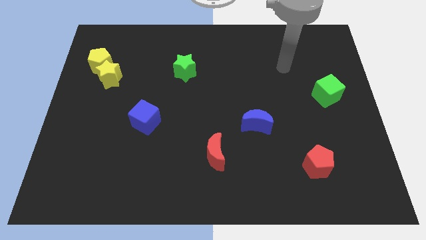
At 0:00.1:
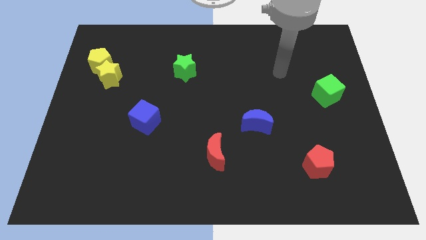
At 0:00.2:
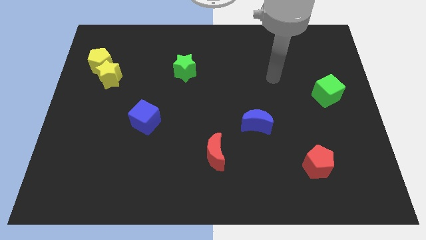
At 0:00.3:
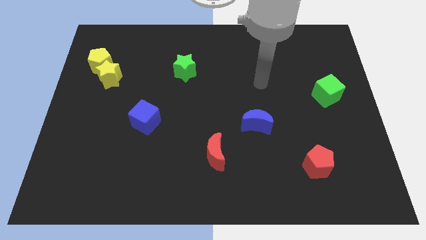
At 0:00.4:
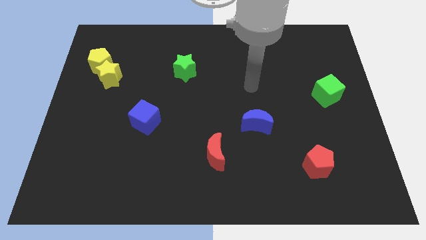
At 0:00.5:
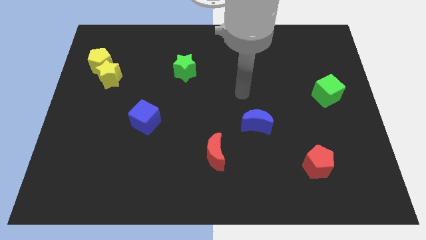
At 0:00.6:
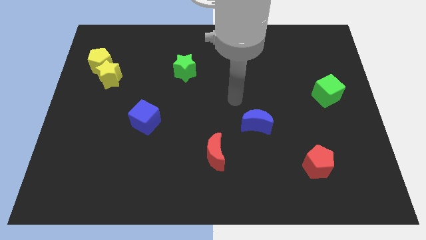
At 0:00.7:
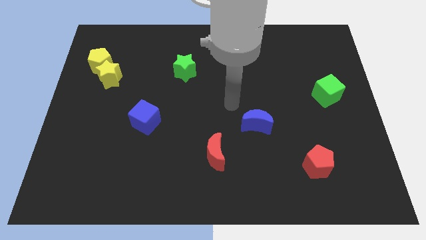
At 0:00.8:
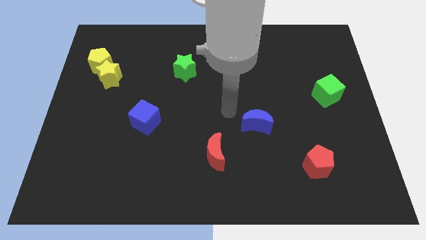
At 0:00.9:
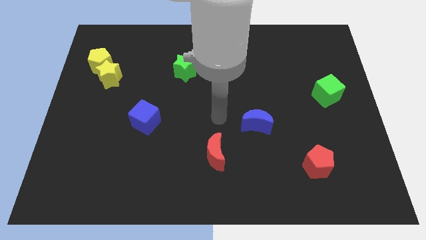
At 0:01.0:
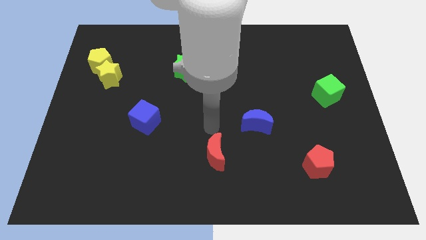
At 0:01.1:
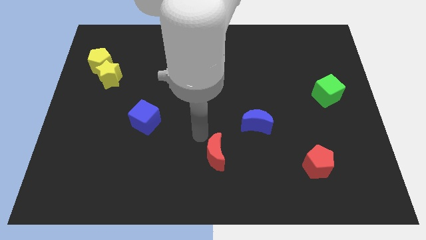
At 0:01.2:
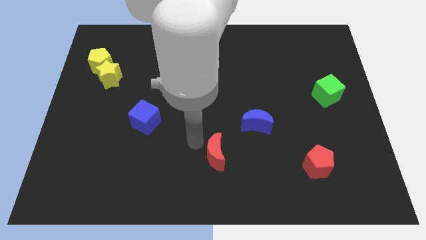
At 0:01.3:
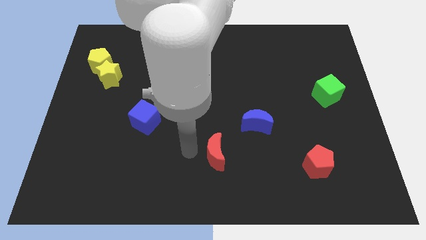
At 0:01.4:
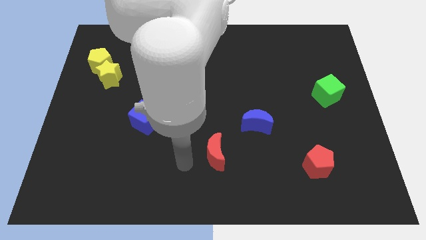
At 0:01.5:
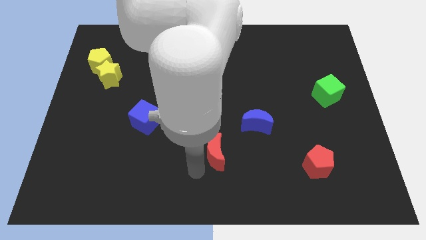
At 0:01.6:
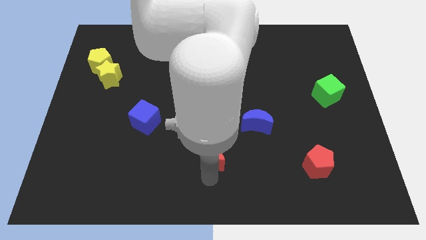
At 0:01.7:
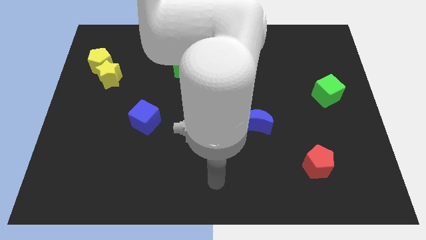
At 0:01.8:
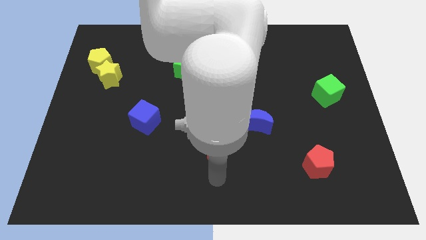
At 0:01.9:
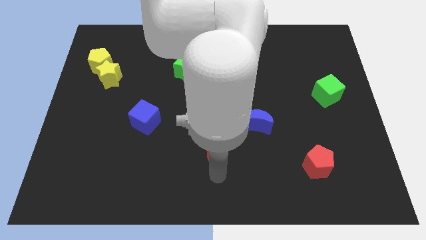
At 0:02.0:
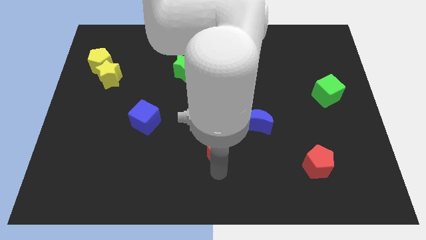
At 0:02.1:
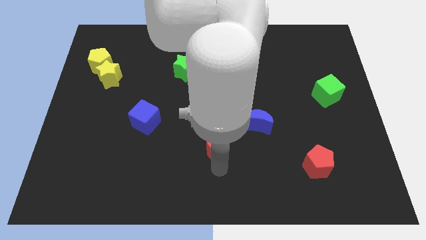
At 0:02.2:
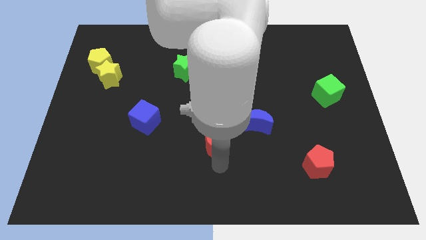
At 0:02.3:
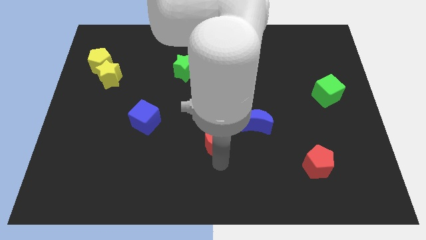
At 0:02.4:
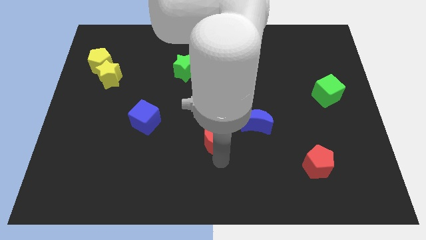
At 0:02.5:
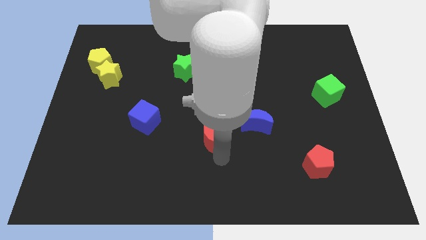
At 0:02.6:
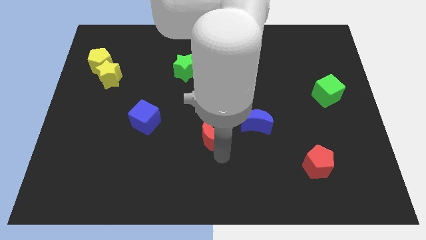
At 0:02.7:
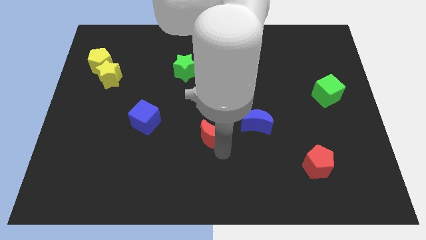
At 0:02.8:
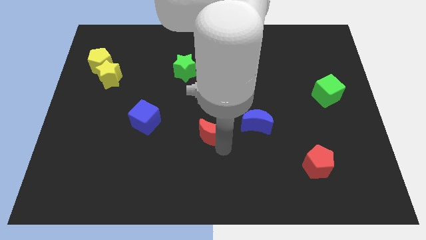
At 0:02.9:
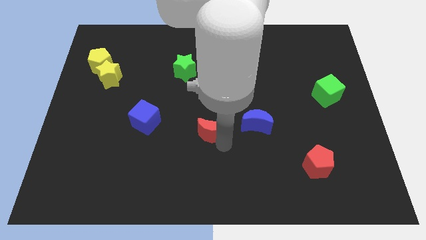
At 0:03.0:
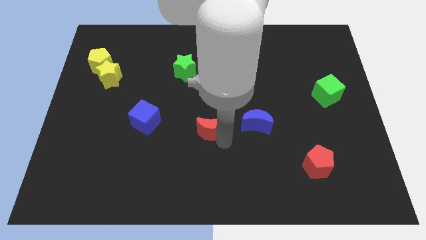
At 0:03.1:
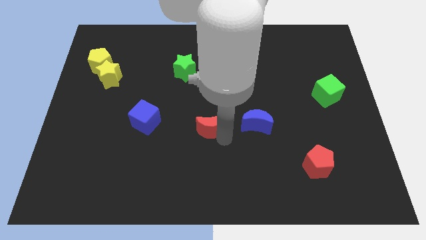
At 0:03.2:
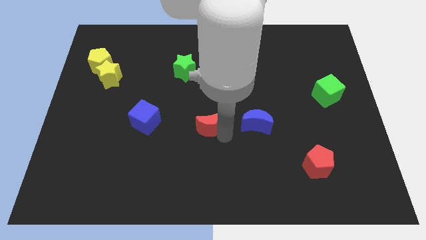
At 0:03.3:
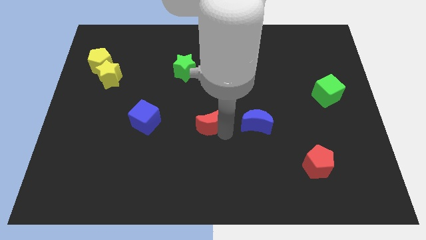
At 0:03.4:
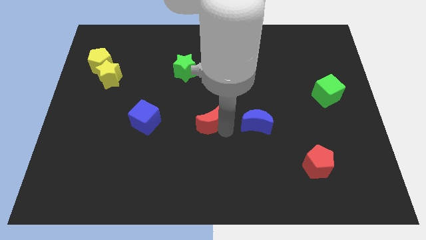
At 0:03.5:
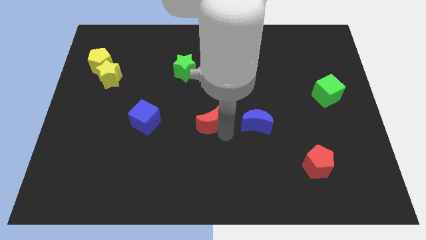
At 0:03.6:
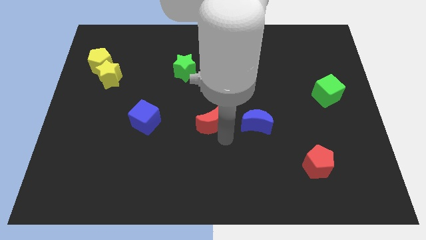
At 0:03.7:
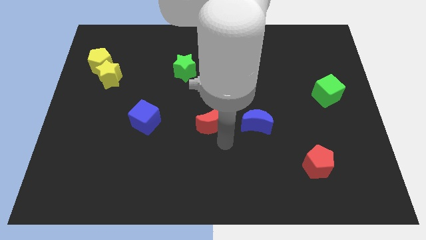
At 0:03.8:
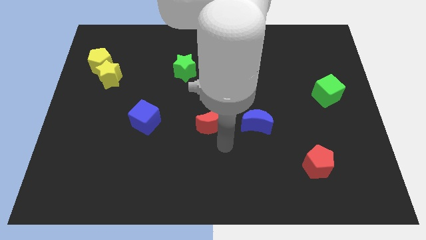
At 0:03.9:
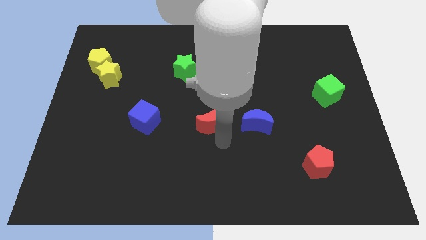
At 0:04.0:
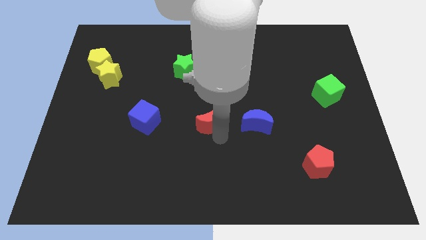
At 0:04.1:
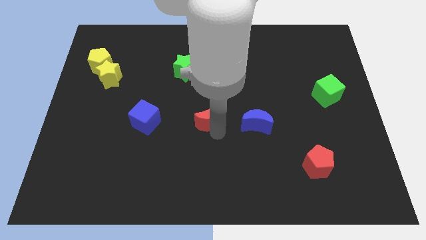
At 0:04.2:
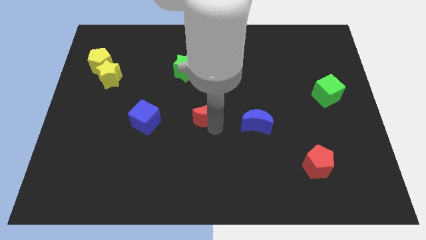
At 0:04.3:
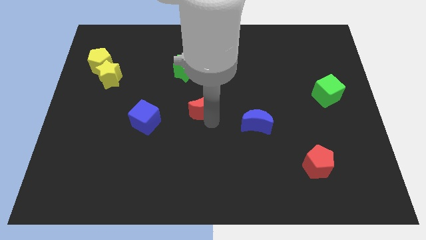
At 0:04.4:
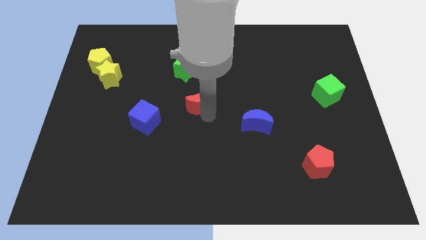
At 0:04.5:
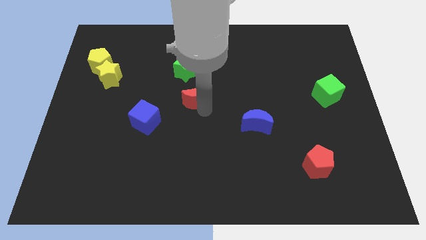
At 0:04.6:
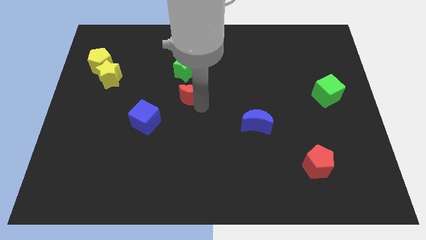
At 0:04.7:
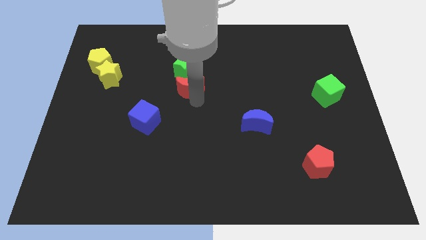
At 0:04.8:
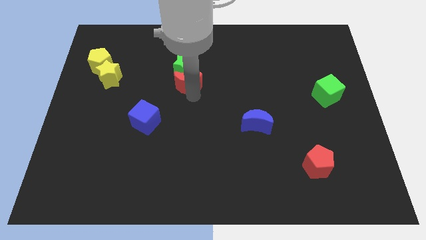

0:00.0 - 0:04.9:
push the red moon close to the green star

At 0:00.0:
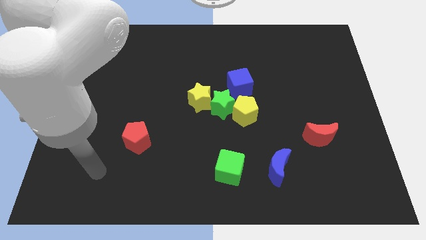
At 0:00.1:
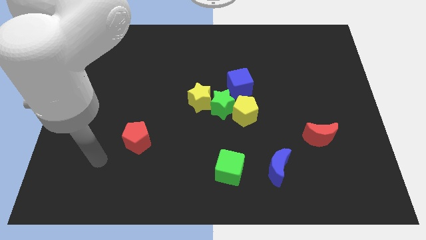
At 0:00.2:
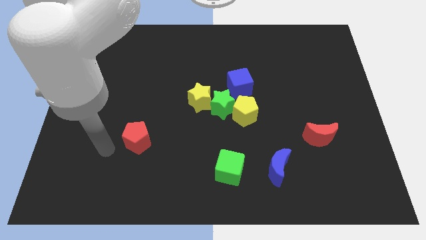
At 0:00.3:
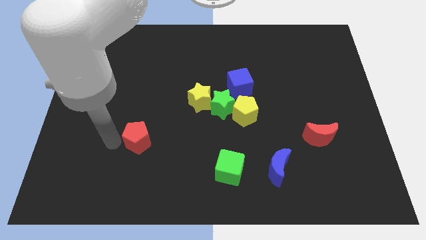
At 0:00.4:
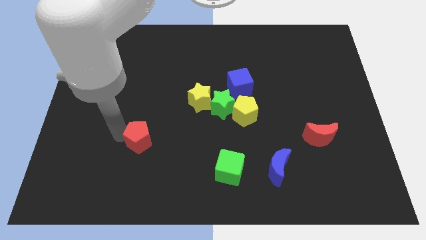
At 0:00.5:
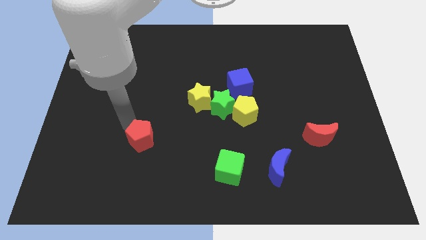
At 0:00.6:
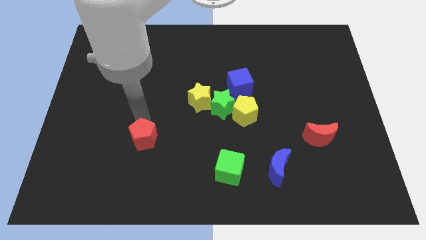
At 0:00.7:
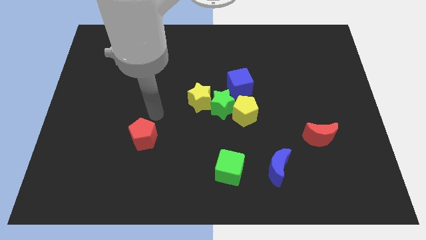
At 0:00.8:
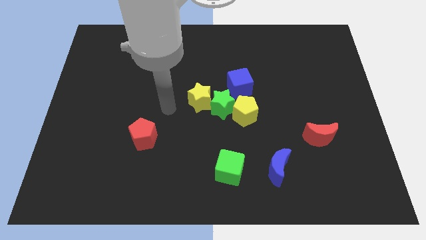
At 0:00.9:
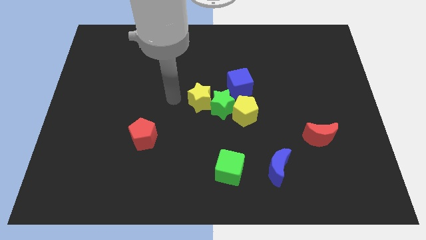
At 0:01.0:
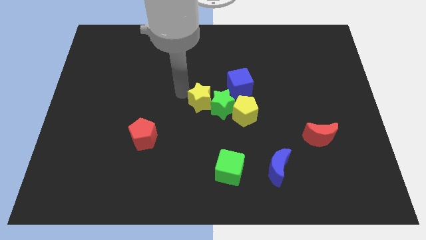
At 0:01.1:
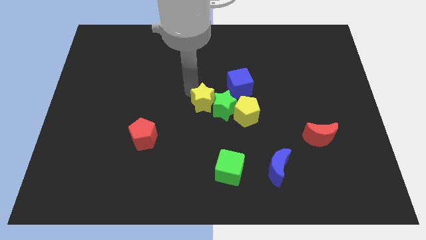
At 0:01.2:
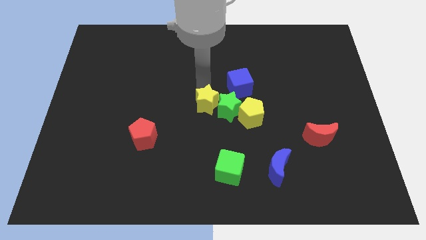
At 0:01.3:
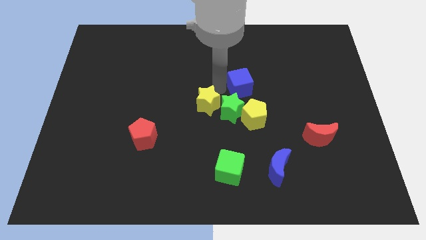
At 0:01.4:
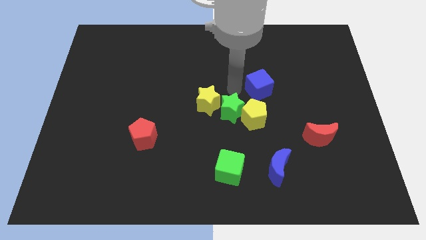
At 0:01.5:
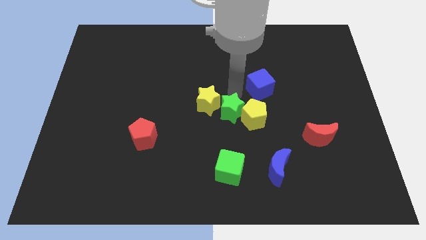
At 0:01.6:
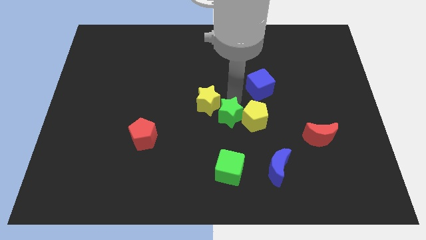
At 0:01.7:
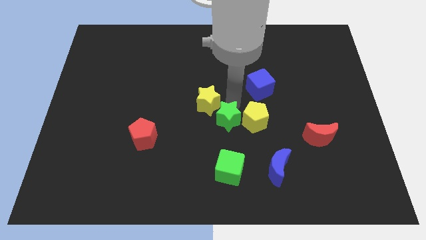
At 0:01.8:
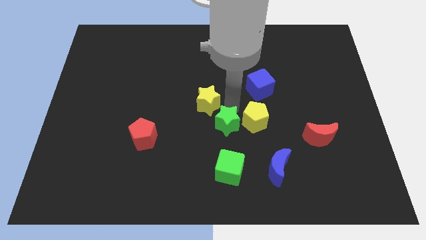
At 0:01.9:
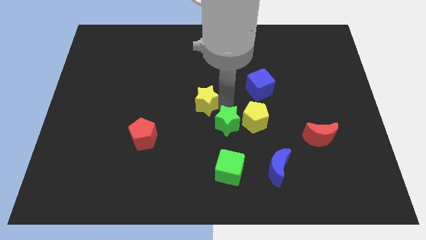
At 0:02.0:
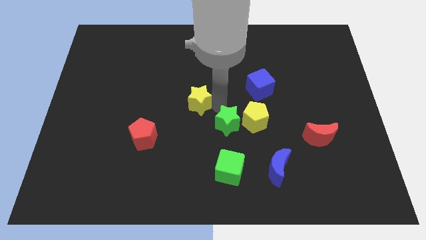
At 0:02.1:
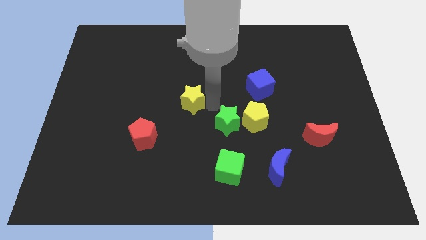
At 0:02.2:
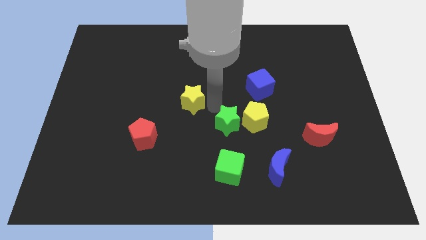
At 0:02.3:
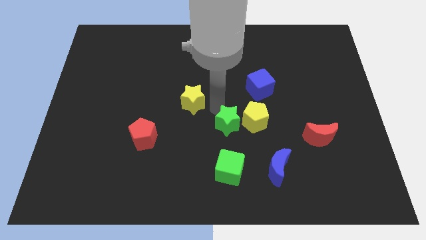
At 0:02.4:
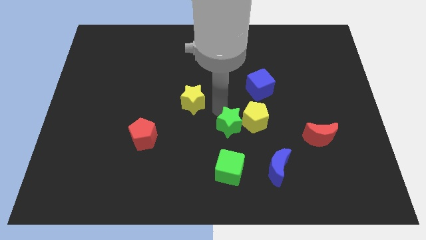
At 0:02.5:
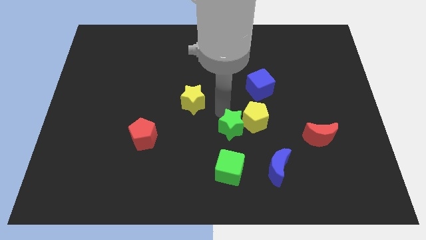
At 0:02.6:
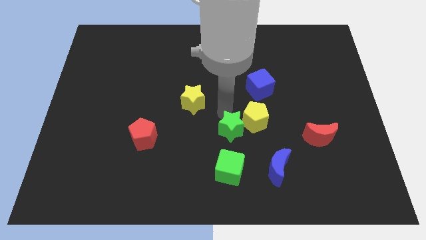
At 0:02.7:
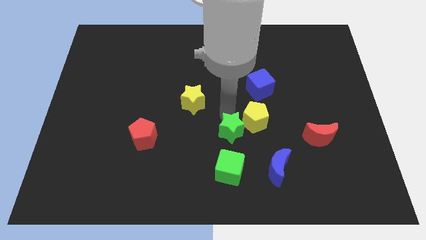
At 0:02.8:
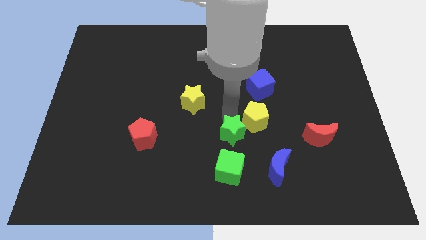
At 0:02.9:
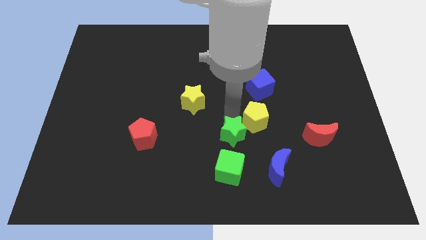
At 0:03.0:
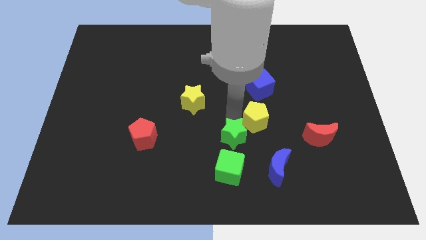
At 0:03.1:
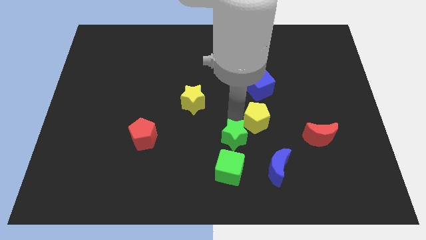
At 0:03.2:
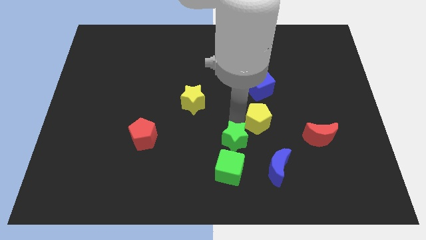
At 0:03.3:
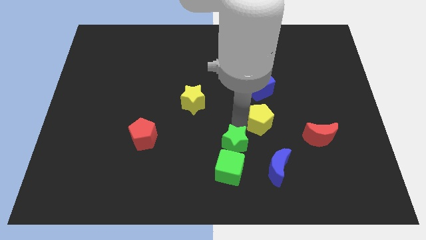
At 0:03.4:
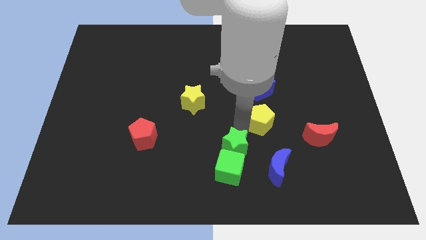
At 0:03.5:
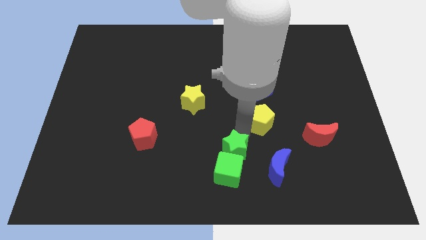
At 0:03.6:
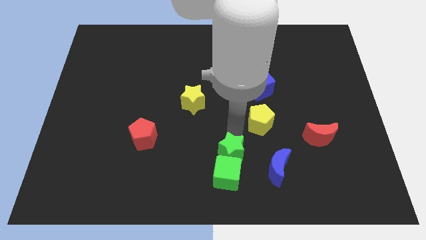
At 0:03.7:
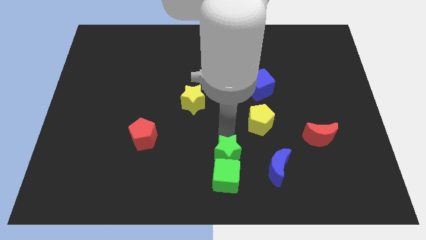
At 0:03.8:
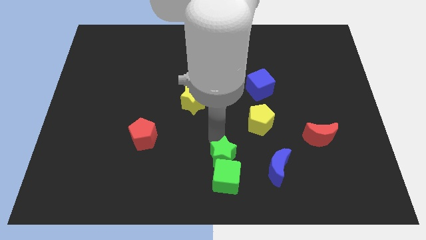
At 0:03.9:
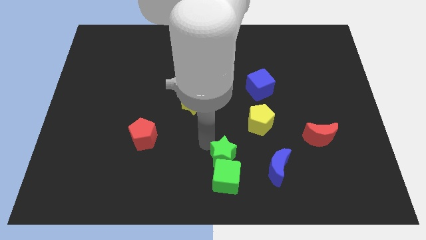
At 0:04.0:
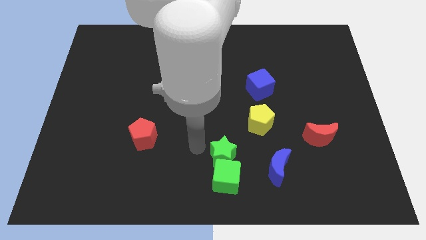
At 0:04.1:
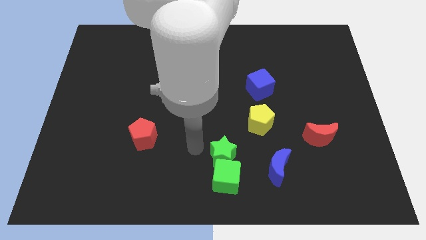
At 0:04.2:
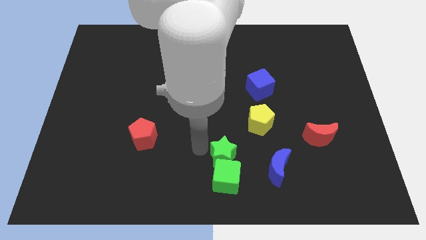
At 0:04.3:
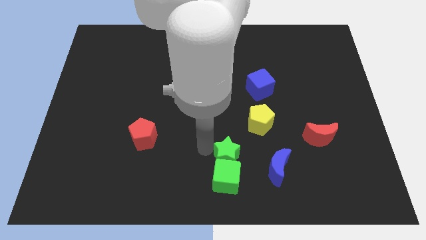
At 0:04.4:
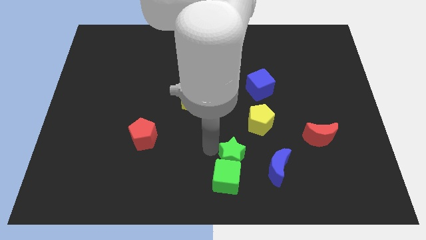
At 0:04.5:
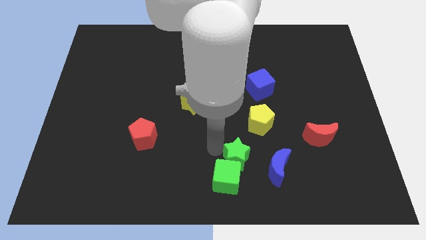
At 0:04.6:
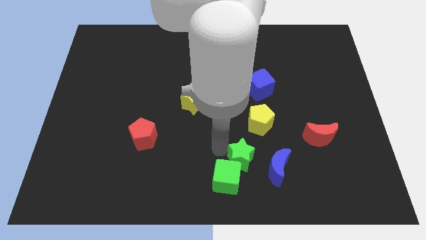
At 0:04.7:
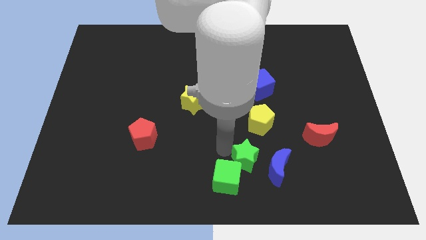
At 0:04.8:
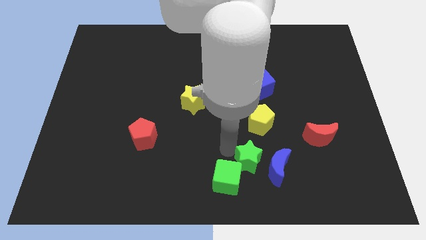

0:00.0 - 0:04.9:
slide the green star to the blue moon
